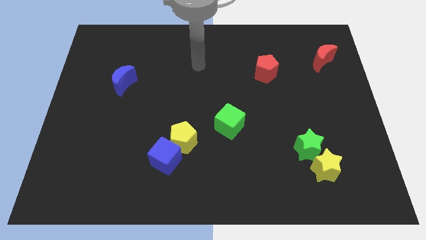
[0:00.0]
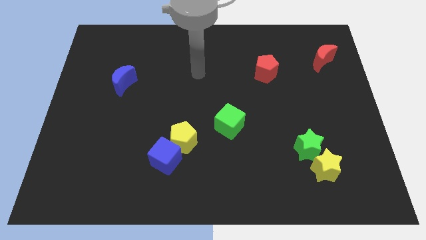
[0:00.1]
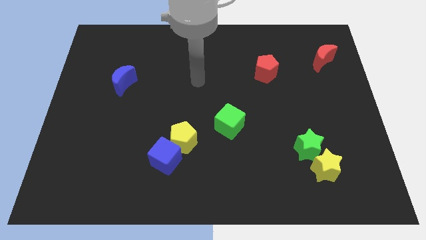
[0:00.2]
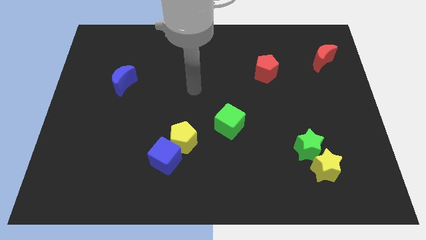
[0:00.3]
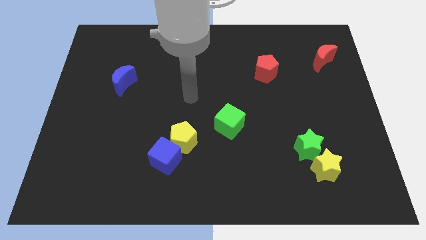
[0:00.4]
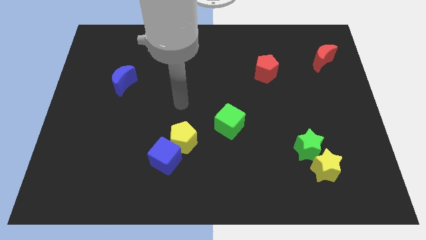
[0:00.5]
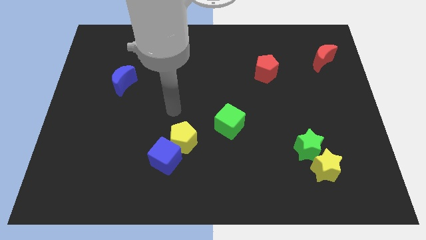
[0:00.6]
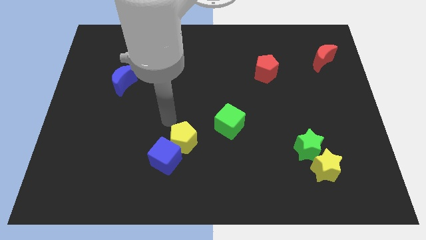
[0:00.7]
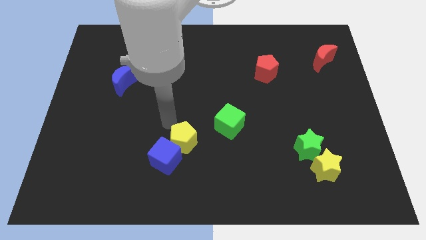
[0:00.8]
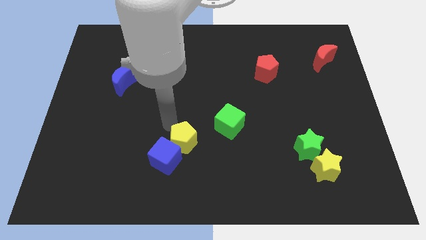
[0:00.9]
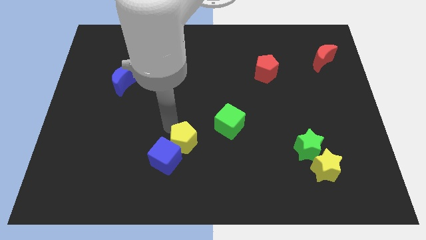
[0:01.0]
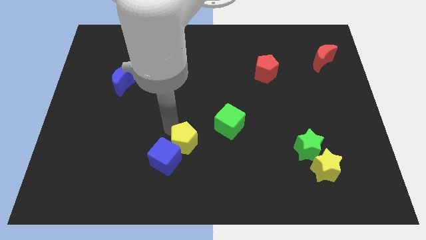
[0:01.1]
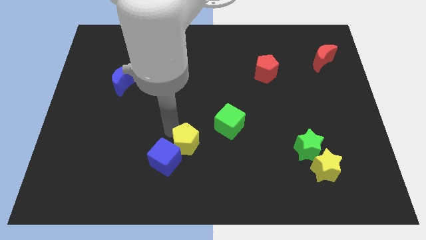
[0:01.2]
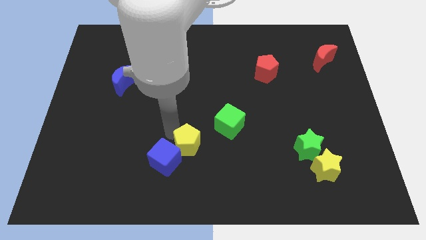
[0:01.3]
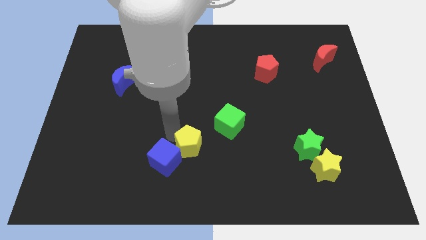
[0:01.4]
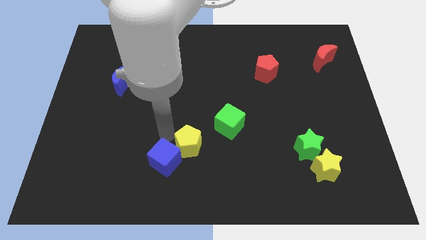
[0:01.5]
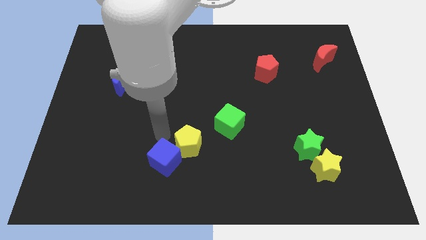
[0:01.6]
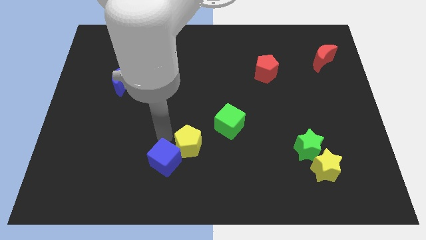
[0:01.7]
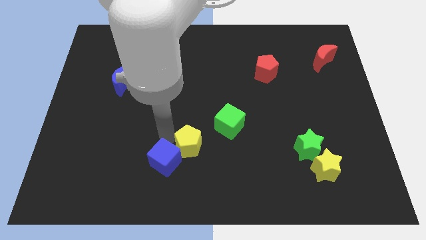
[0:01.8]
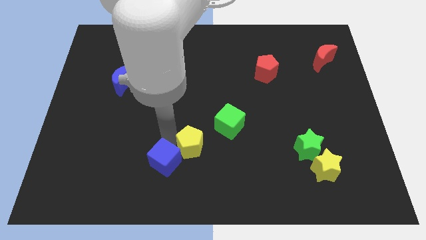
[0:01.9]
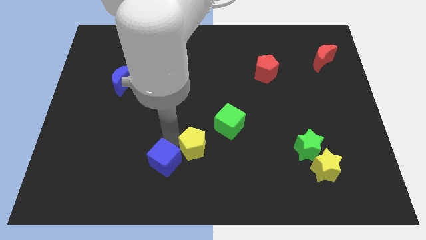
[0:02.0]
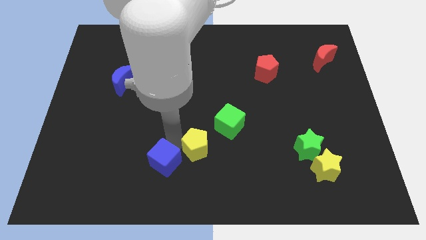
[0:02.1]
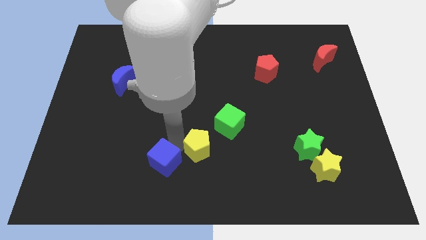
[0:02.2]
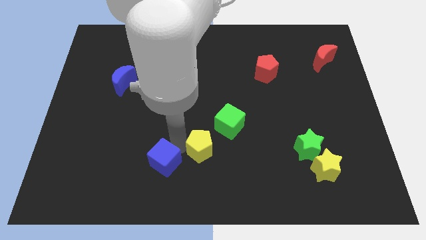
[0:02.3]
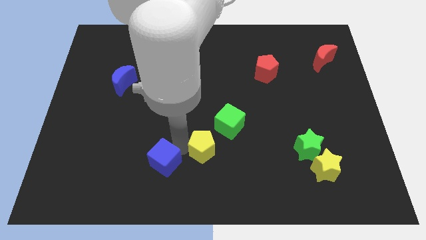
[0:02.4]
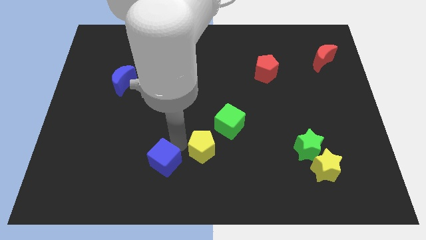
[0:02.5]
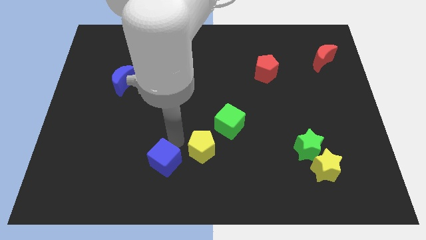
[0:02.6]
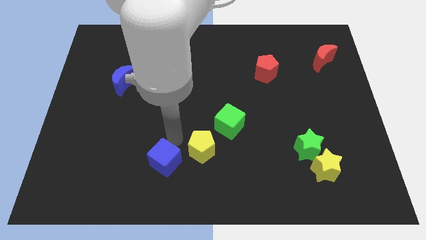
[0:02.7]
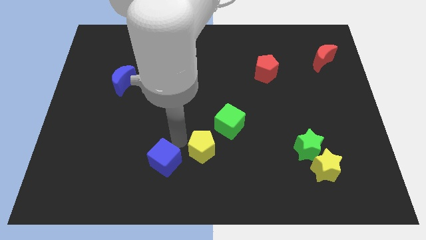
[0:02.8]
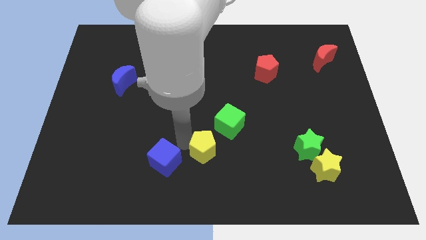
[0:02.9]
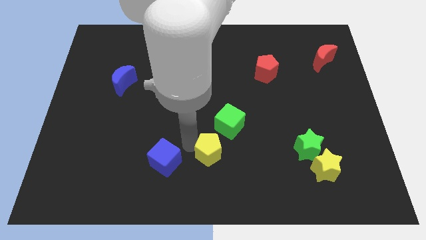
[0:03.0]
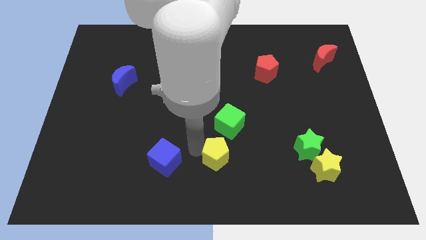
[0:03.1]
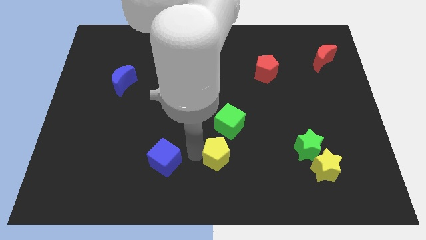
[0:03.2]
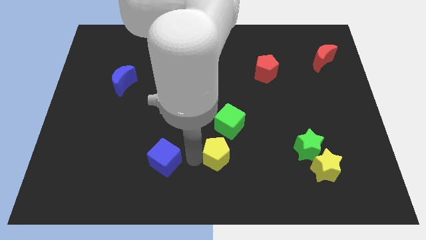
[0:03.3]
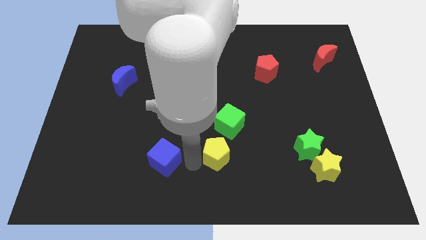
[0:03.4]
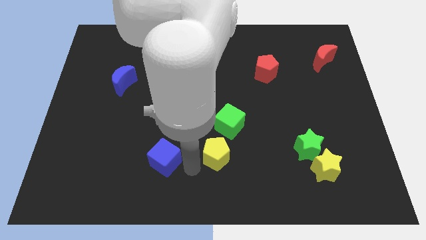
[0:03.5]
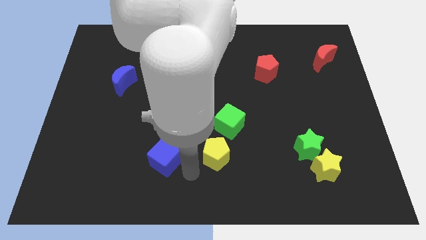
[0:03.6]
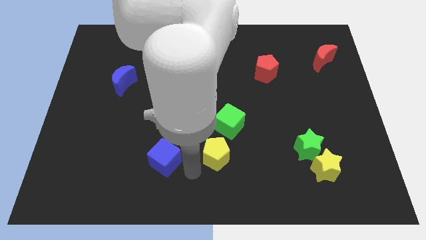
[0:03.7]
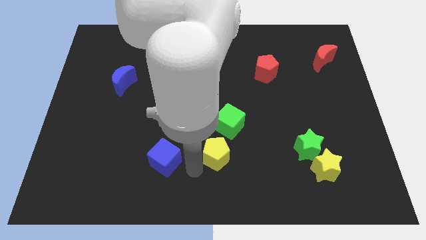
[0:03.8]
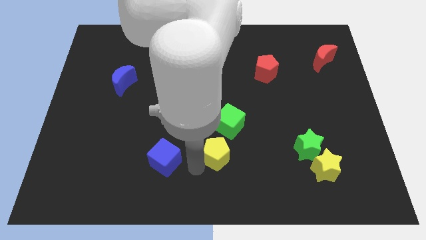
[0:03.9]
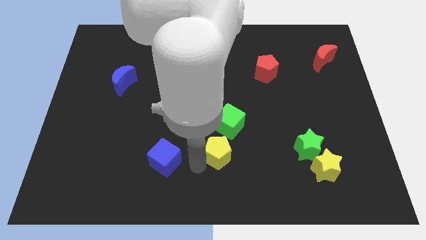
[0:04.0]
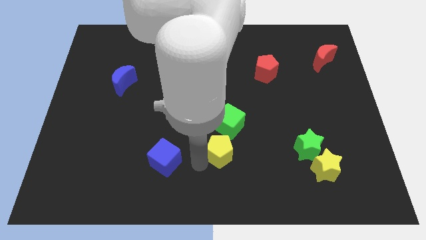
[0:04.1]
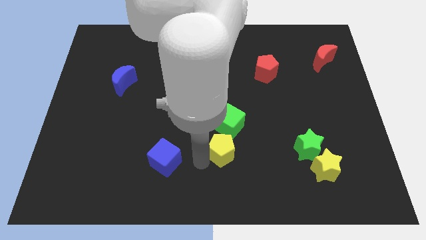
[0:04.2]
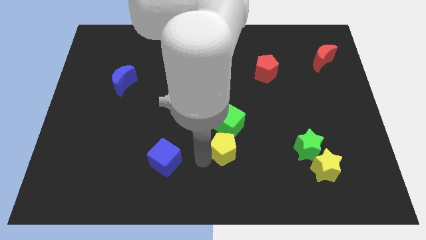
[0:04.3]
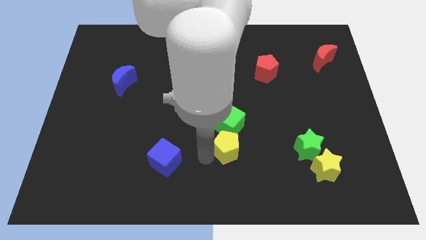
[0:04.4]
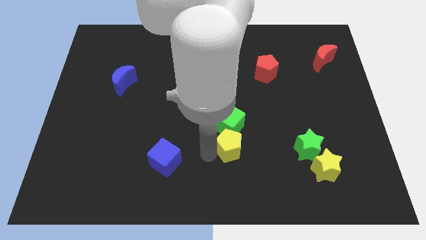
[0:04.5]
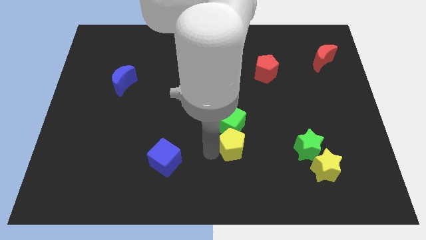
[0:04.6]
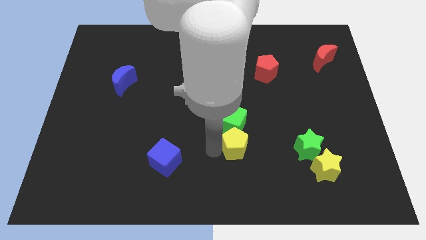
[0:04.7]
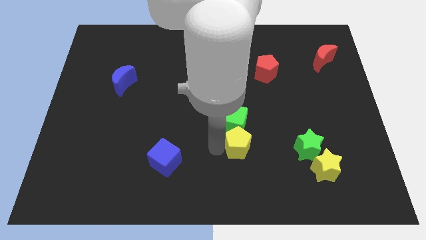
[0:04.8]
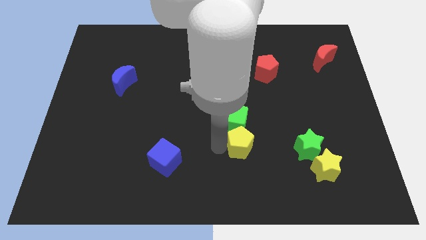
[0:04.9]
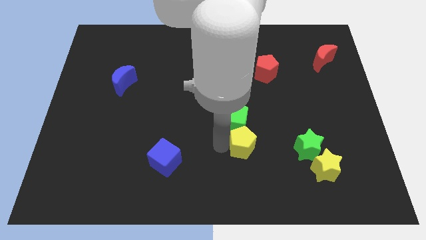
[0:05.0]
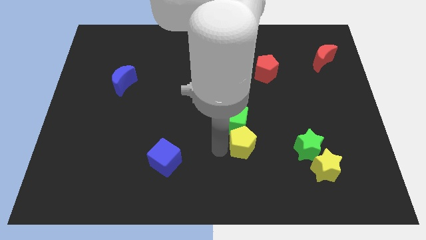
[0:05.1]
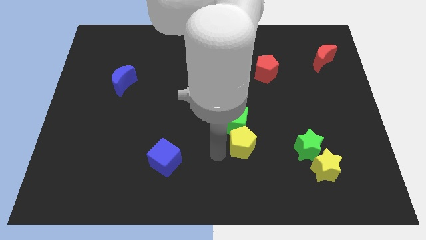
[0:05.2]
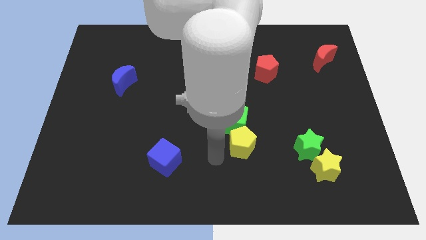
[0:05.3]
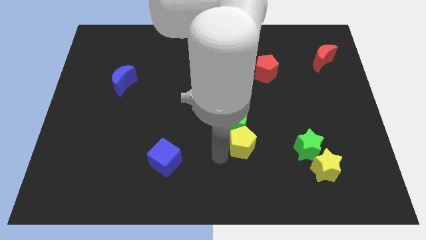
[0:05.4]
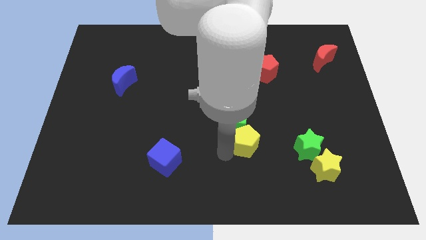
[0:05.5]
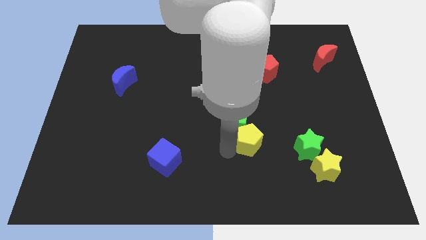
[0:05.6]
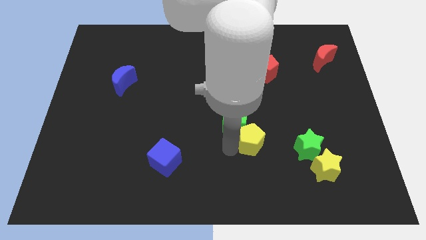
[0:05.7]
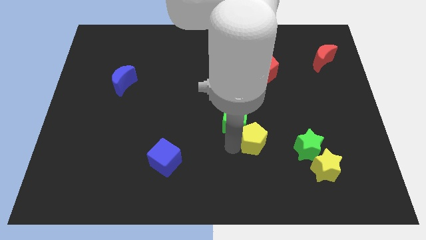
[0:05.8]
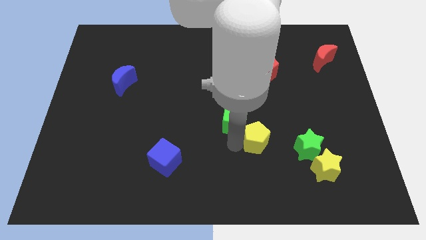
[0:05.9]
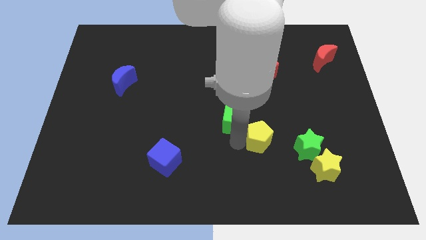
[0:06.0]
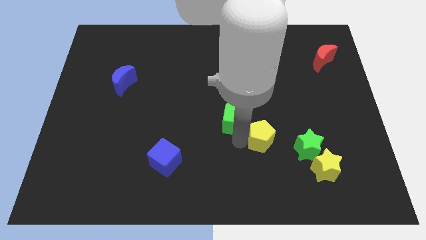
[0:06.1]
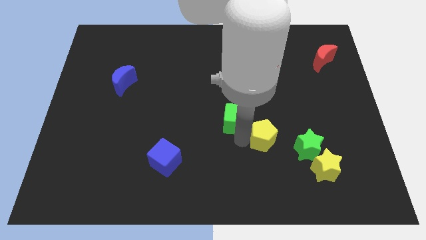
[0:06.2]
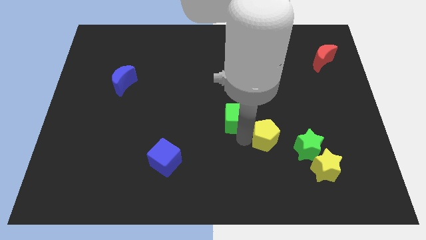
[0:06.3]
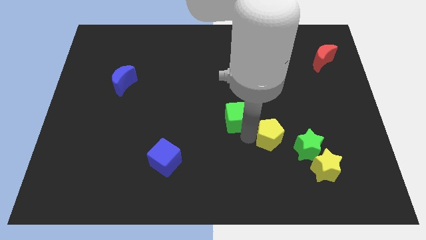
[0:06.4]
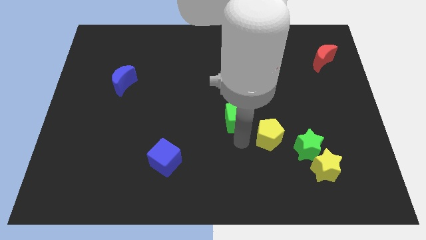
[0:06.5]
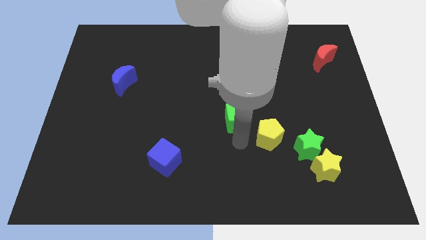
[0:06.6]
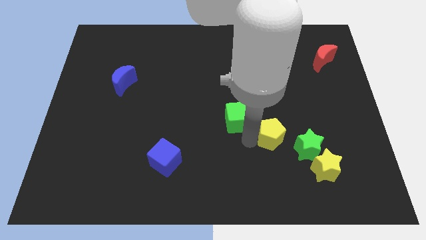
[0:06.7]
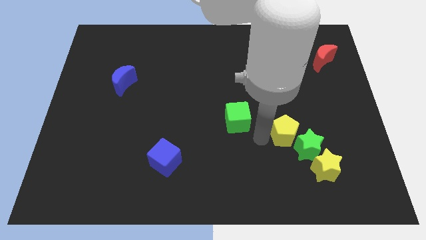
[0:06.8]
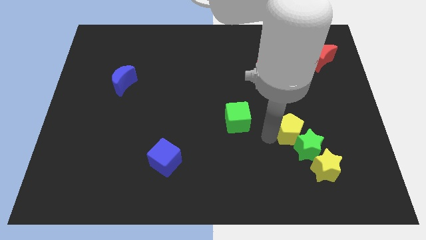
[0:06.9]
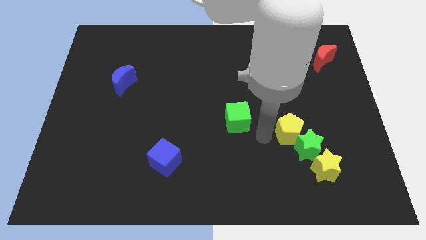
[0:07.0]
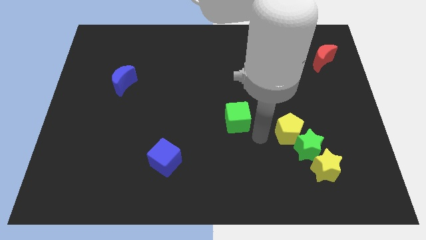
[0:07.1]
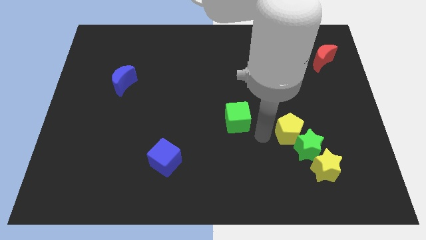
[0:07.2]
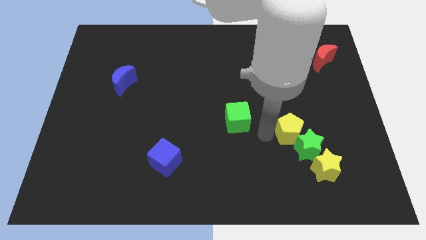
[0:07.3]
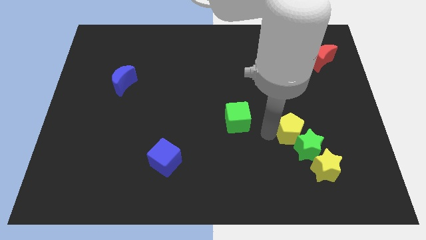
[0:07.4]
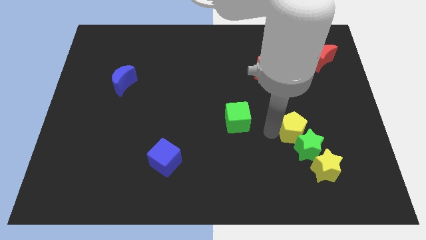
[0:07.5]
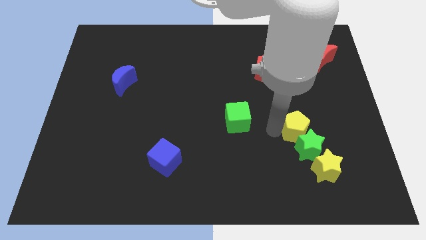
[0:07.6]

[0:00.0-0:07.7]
push the yellow pentagon above the yellow star
